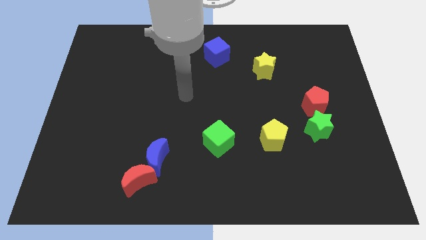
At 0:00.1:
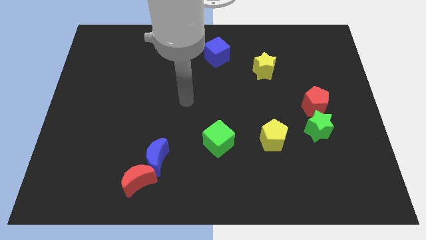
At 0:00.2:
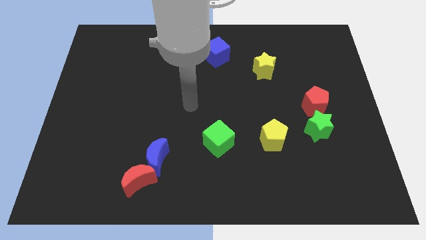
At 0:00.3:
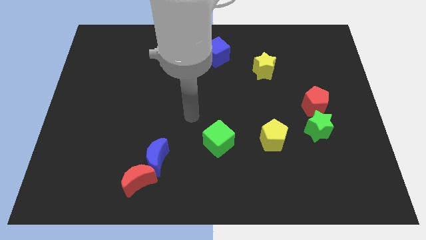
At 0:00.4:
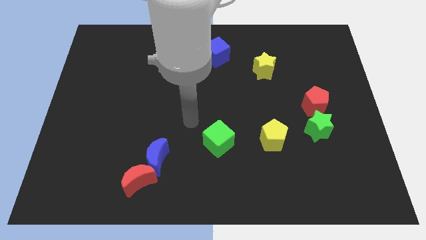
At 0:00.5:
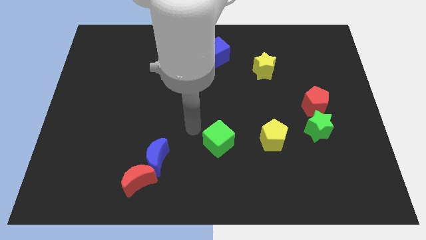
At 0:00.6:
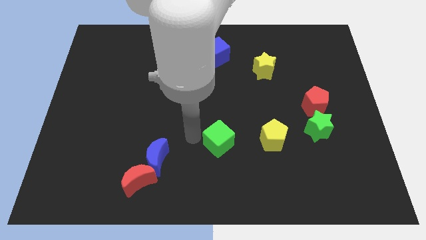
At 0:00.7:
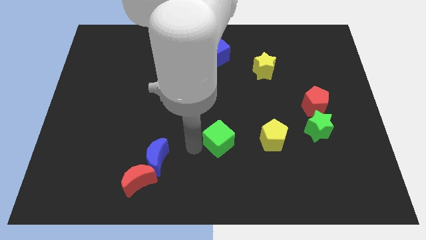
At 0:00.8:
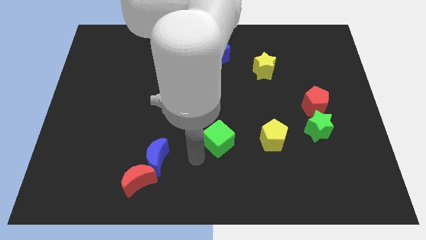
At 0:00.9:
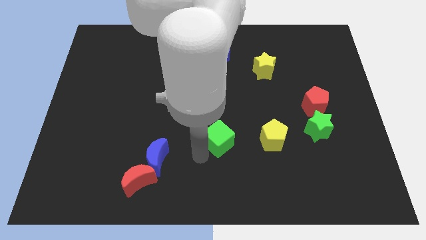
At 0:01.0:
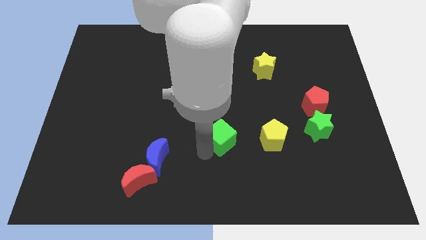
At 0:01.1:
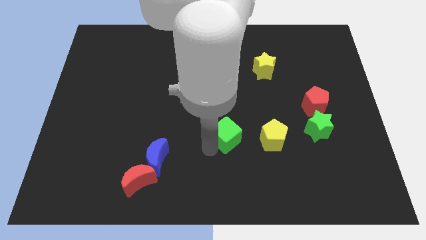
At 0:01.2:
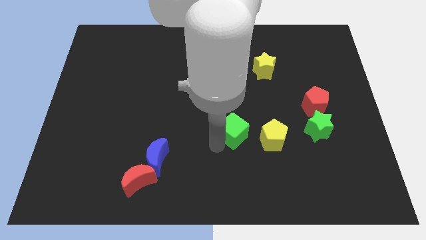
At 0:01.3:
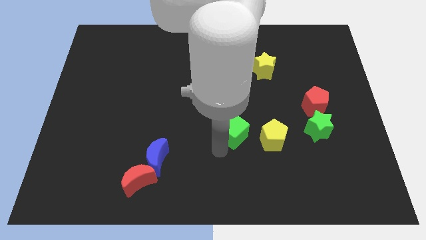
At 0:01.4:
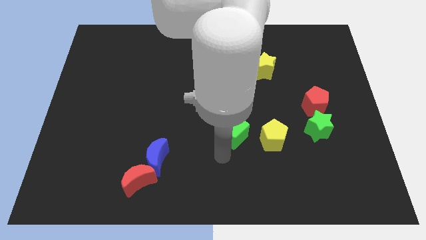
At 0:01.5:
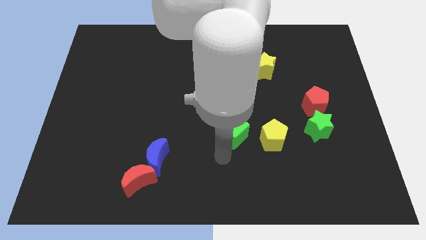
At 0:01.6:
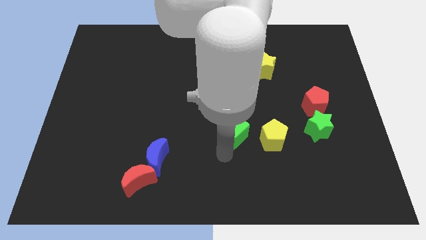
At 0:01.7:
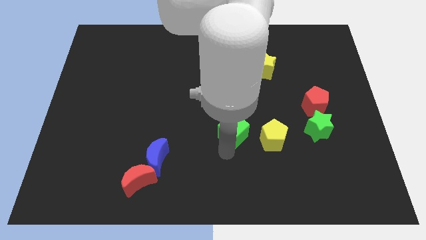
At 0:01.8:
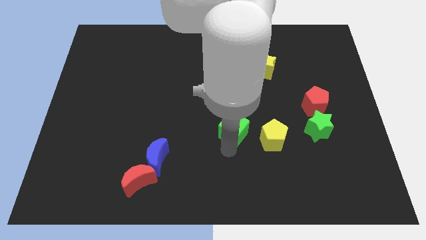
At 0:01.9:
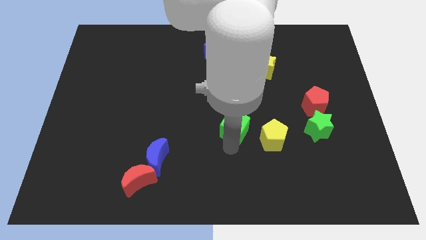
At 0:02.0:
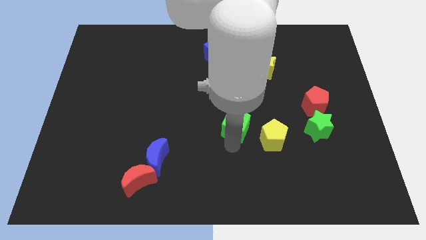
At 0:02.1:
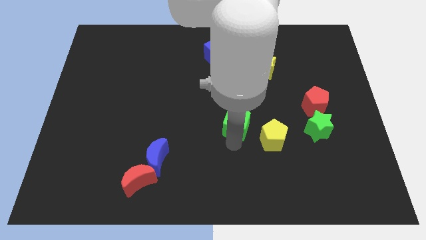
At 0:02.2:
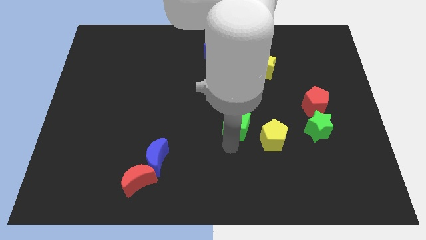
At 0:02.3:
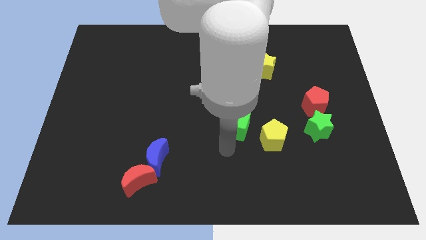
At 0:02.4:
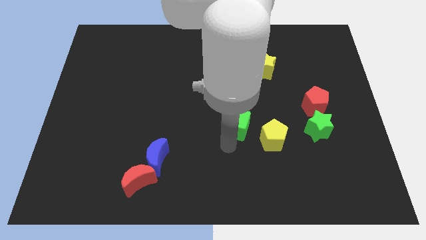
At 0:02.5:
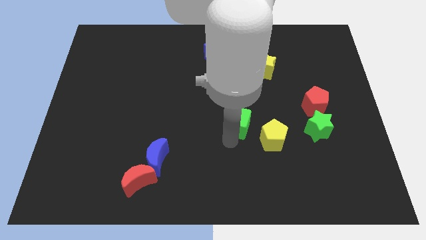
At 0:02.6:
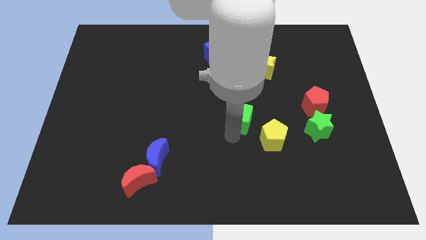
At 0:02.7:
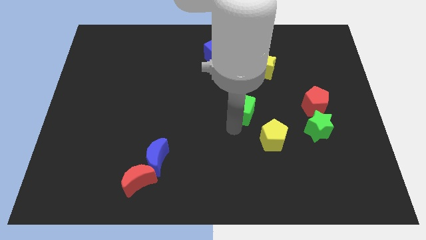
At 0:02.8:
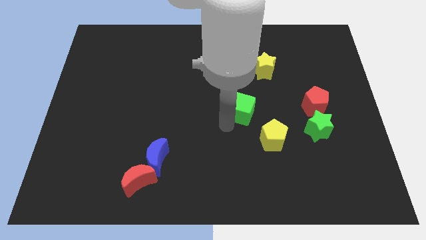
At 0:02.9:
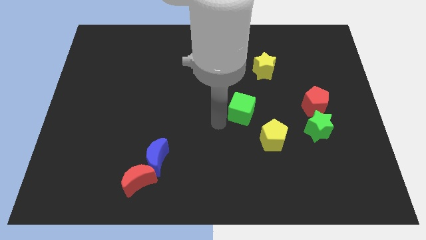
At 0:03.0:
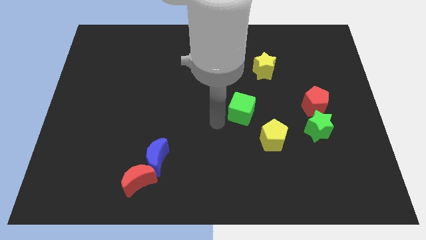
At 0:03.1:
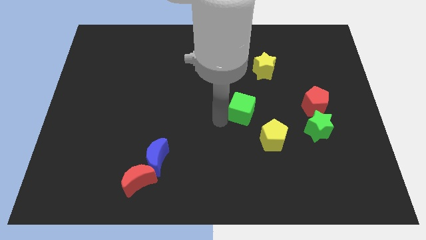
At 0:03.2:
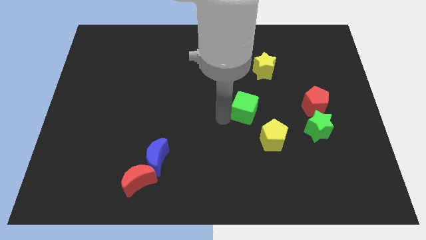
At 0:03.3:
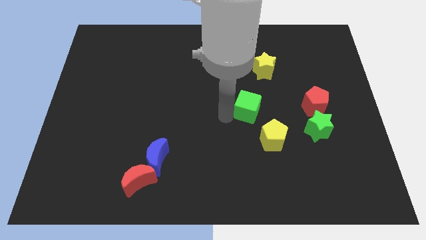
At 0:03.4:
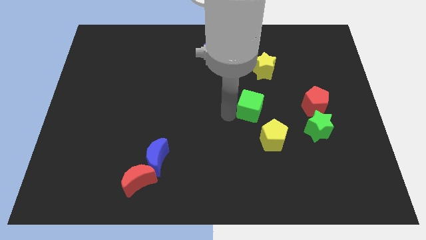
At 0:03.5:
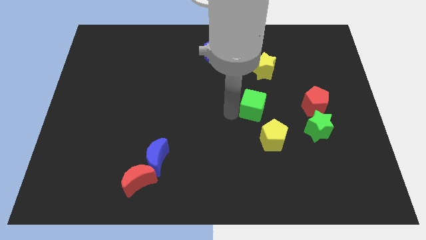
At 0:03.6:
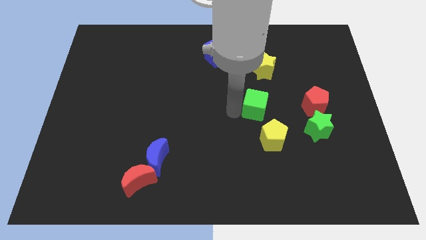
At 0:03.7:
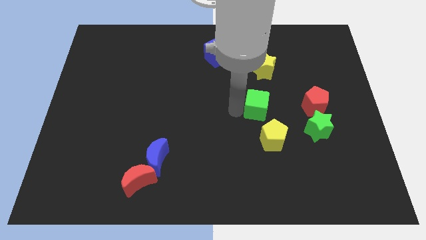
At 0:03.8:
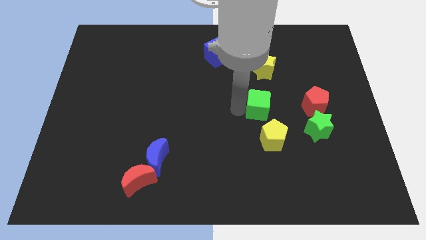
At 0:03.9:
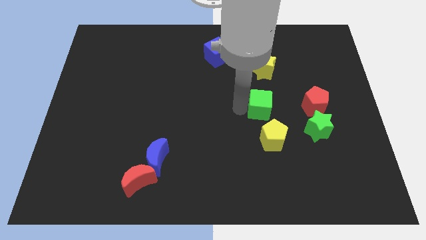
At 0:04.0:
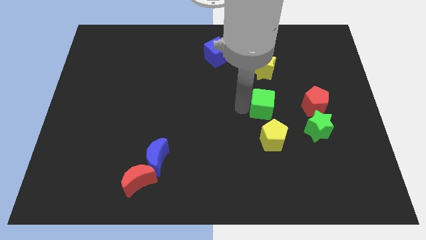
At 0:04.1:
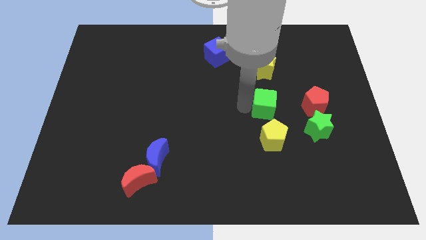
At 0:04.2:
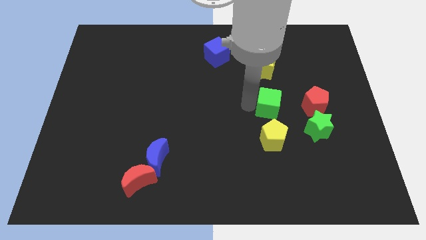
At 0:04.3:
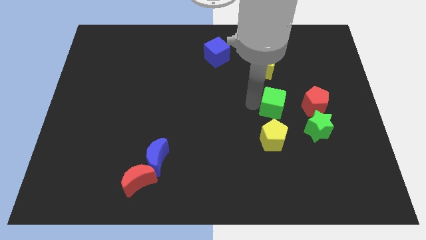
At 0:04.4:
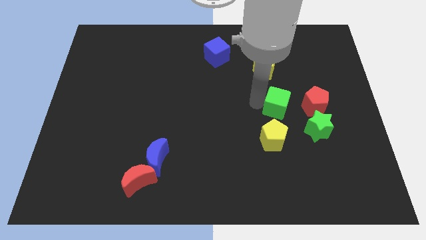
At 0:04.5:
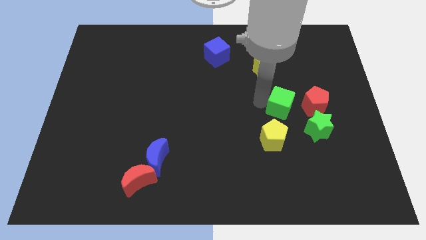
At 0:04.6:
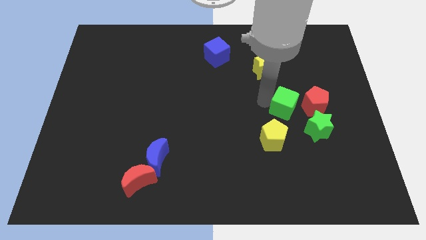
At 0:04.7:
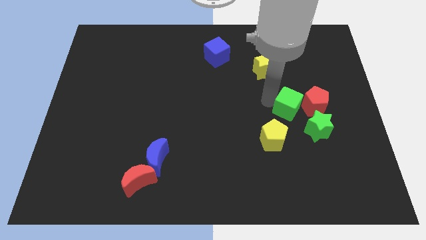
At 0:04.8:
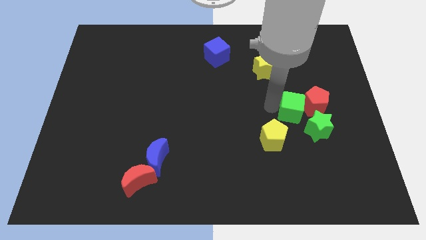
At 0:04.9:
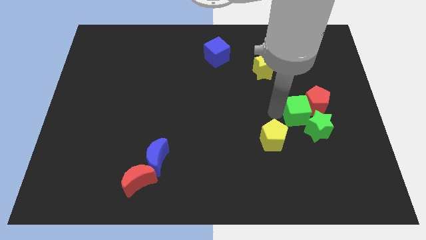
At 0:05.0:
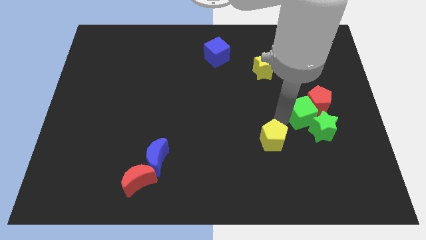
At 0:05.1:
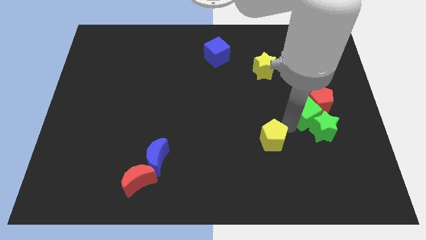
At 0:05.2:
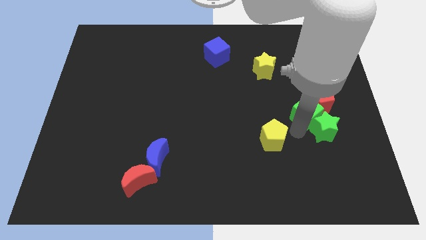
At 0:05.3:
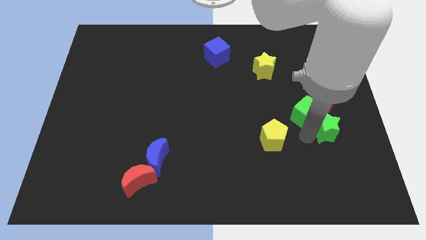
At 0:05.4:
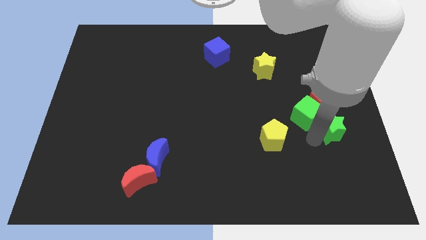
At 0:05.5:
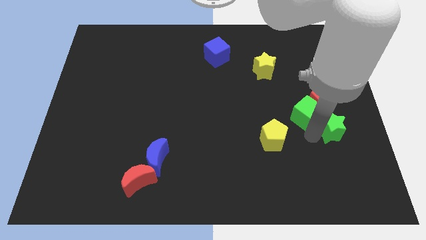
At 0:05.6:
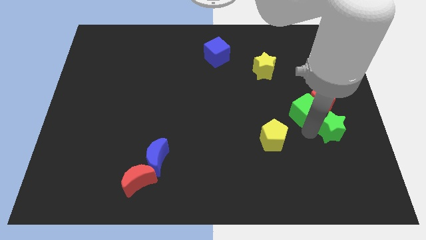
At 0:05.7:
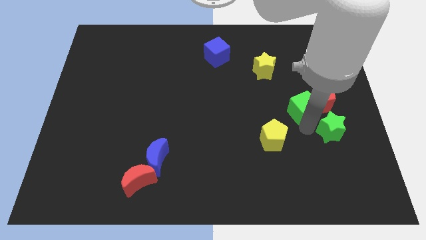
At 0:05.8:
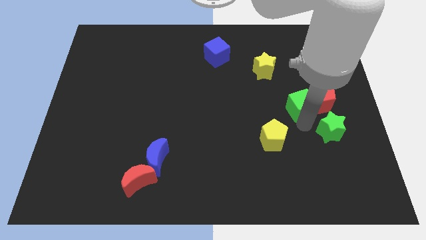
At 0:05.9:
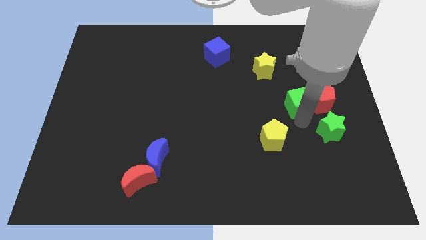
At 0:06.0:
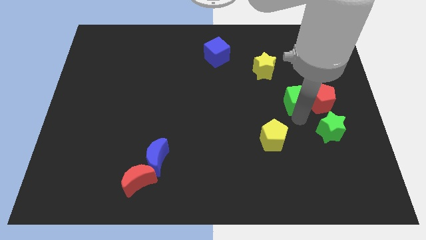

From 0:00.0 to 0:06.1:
push the green cube diagonally upwards and right

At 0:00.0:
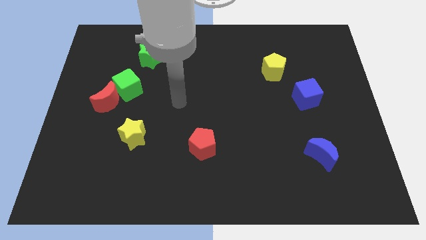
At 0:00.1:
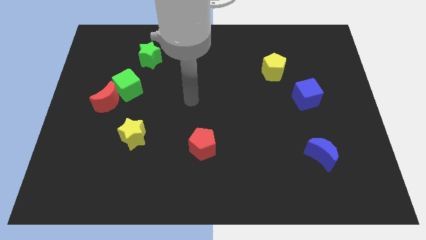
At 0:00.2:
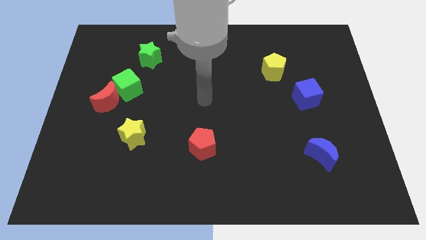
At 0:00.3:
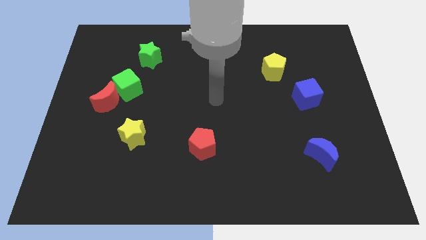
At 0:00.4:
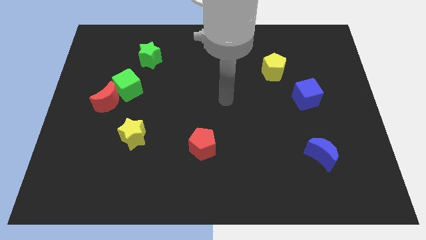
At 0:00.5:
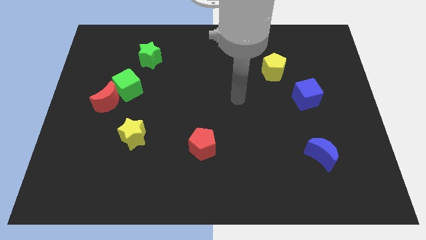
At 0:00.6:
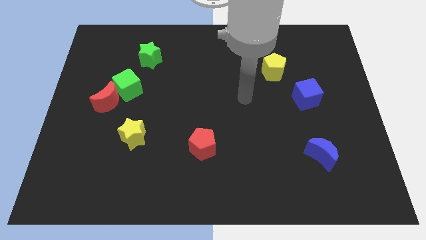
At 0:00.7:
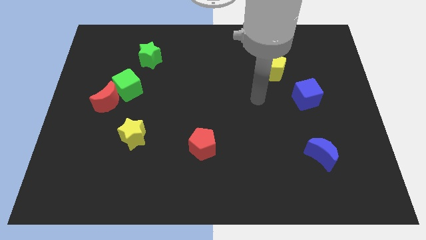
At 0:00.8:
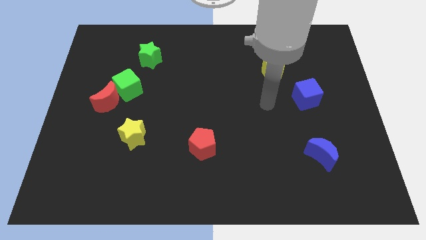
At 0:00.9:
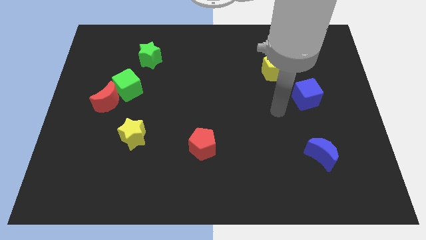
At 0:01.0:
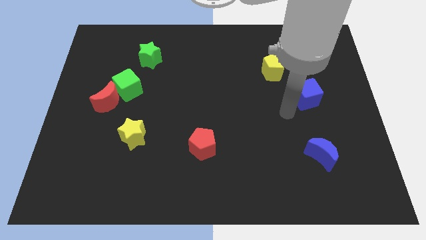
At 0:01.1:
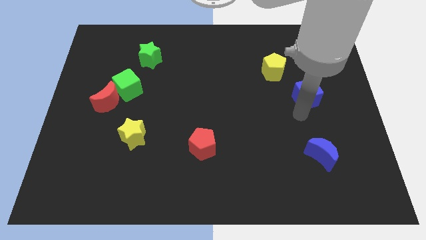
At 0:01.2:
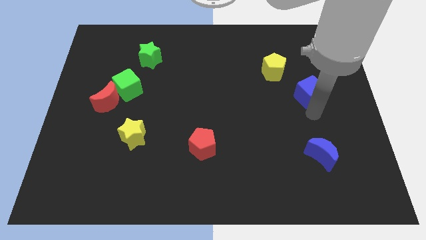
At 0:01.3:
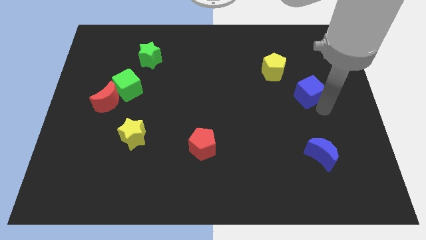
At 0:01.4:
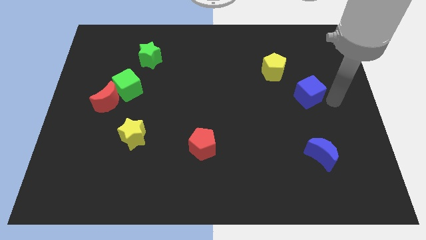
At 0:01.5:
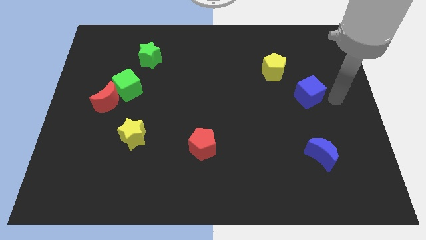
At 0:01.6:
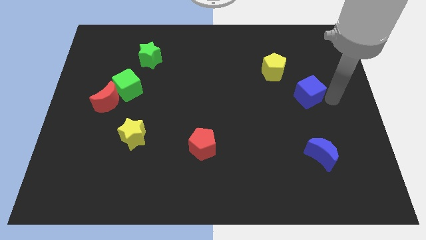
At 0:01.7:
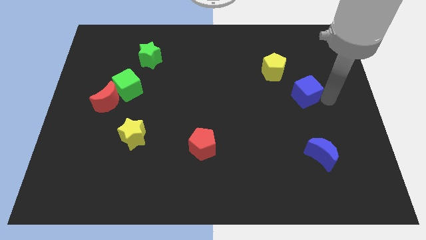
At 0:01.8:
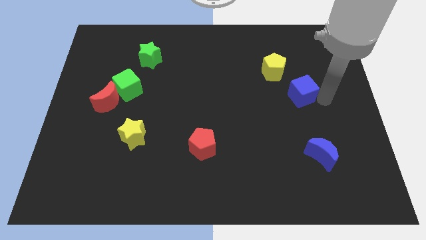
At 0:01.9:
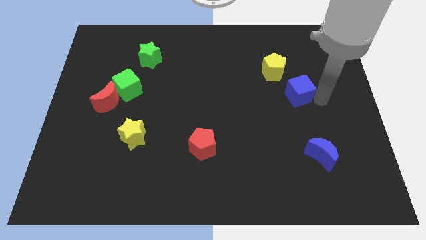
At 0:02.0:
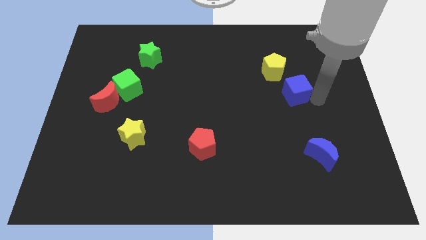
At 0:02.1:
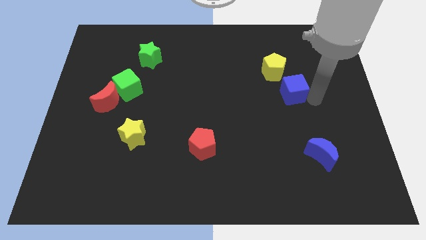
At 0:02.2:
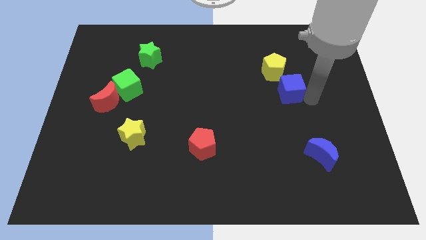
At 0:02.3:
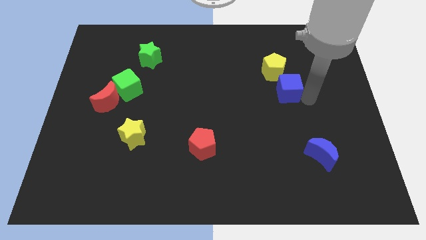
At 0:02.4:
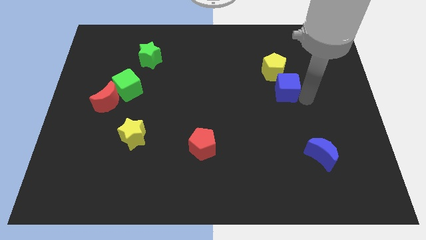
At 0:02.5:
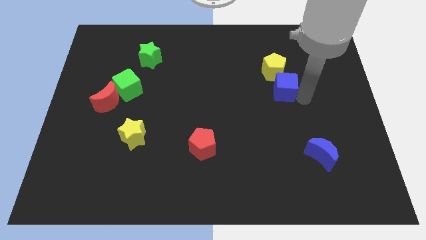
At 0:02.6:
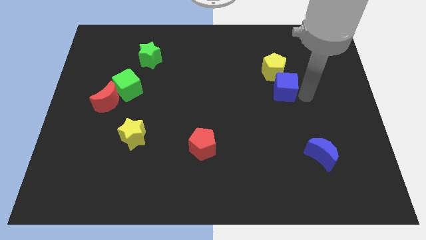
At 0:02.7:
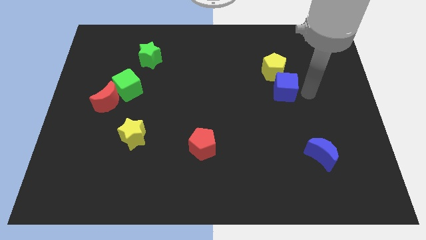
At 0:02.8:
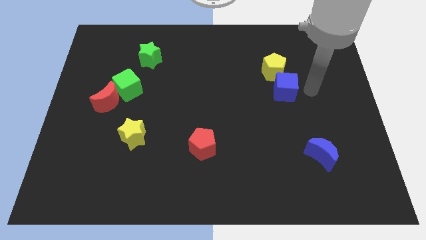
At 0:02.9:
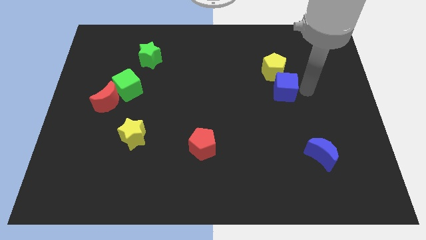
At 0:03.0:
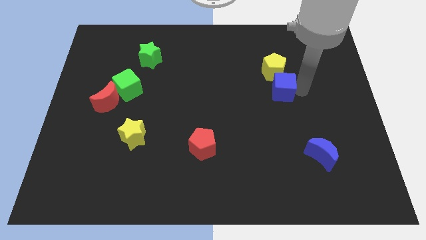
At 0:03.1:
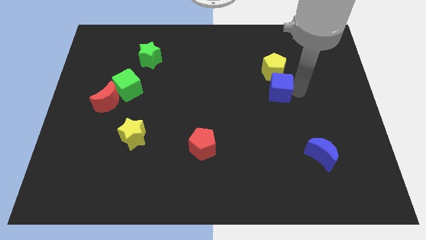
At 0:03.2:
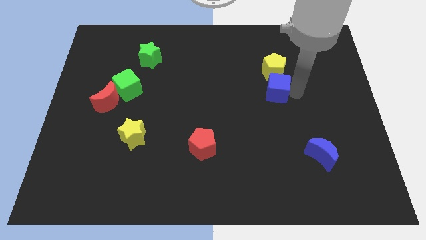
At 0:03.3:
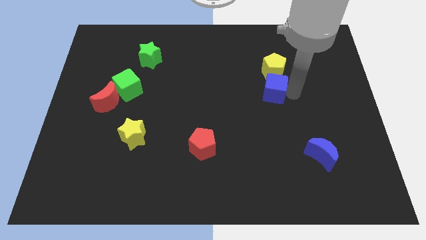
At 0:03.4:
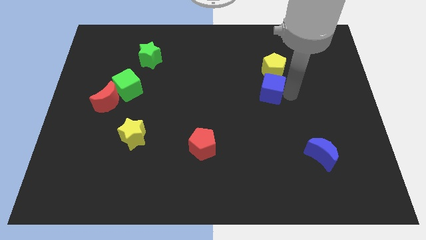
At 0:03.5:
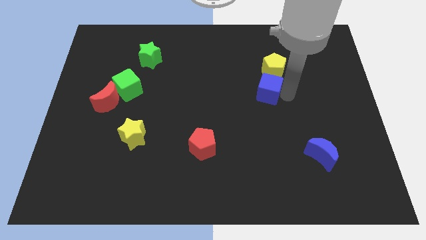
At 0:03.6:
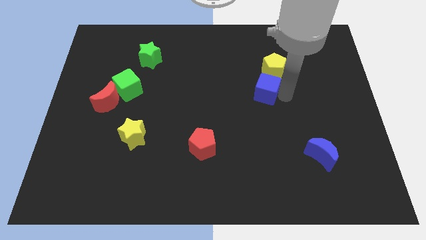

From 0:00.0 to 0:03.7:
push the blue cube somewhat diagonally upwards and left
